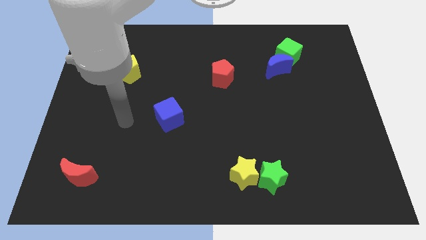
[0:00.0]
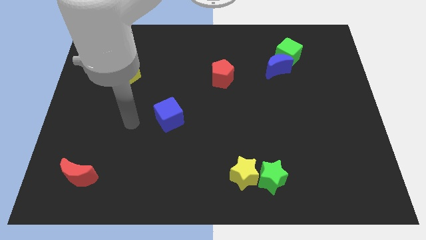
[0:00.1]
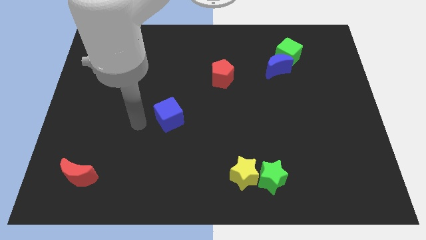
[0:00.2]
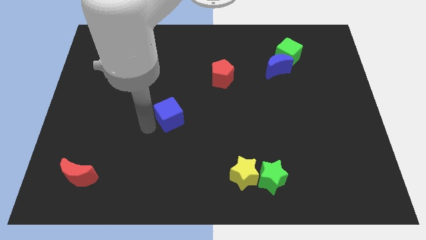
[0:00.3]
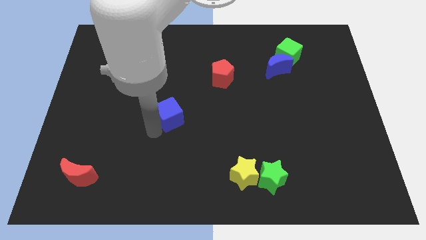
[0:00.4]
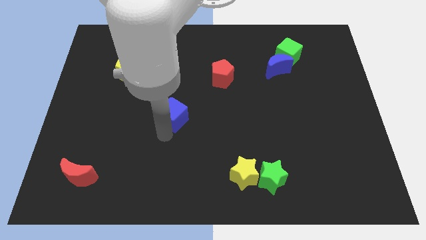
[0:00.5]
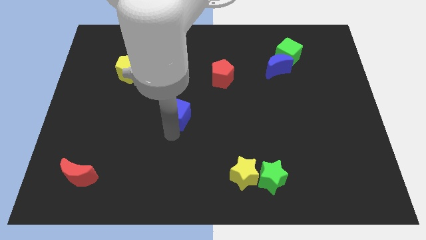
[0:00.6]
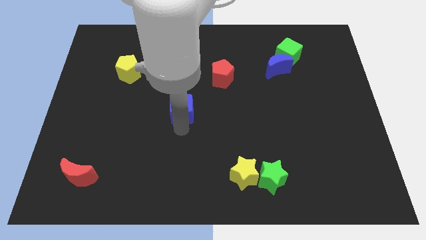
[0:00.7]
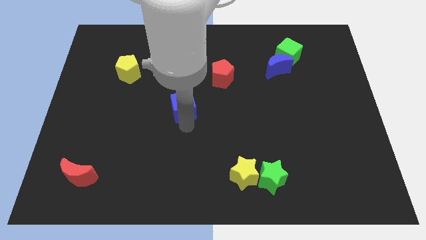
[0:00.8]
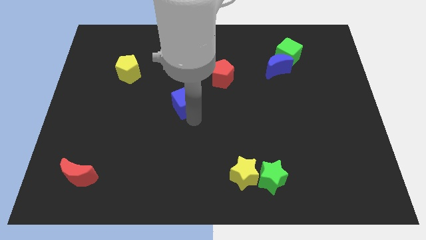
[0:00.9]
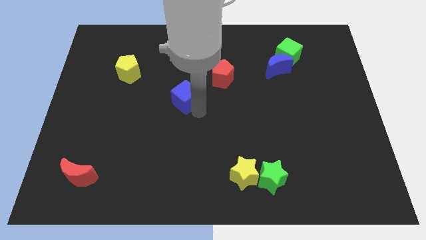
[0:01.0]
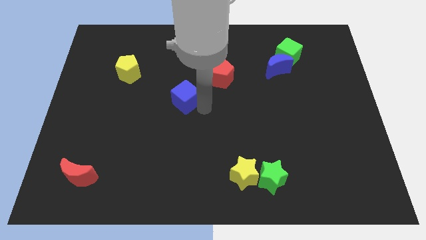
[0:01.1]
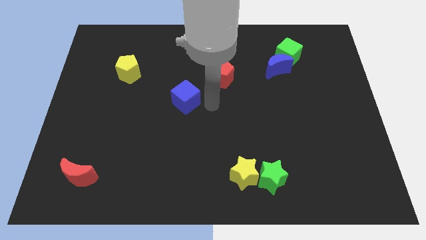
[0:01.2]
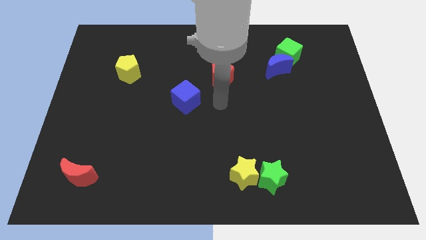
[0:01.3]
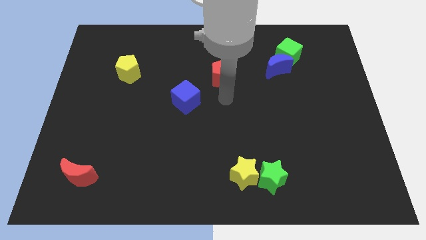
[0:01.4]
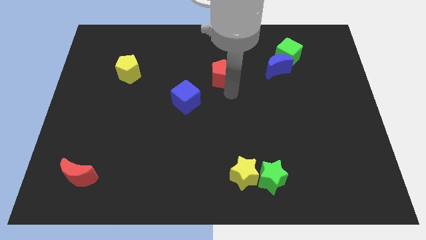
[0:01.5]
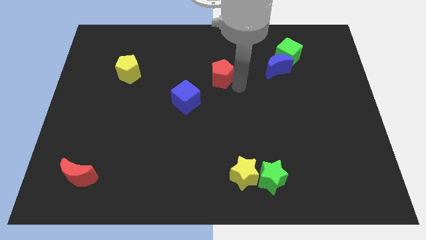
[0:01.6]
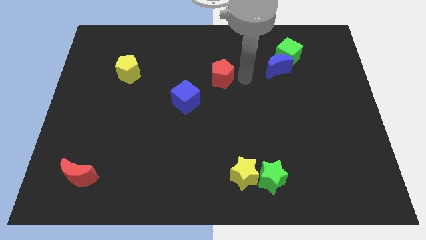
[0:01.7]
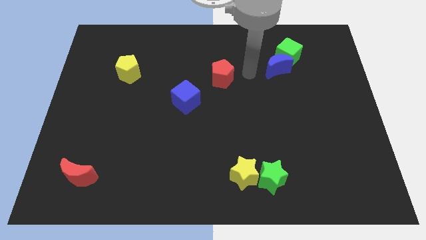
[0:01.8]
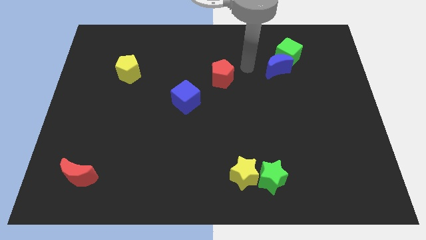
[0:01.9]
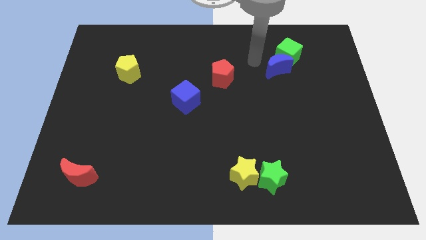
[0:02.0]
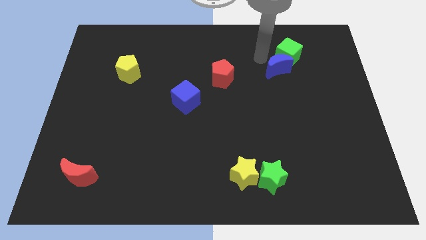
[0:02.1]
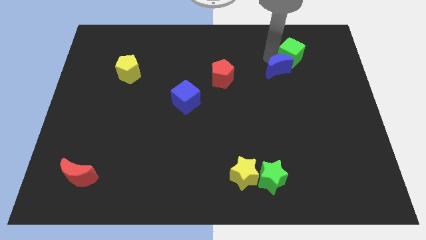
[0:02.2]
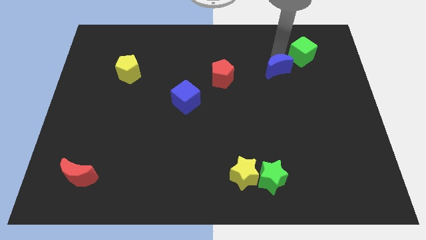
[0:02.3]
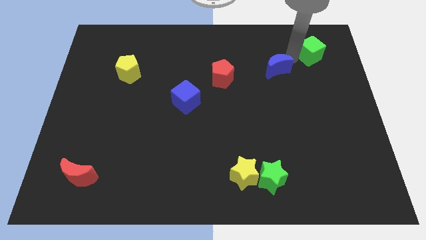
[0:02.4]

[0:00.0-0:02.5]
separate the blue moon from the green cube

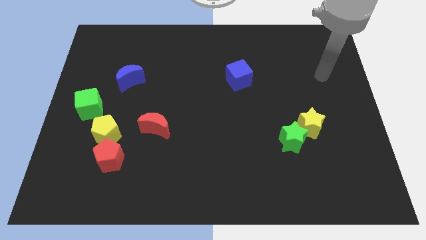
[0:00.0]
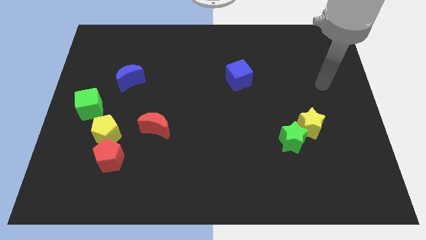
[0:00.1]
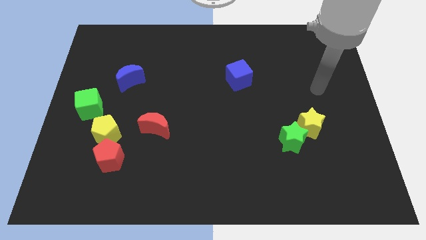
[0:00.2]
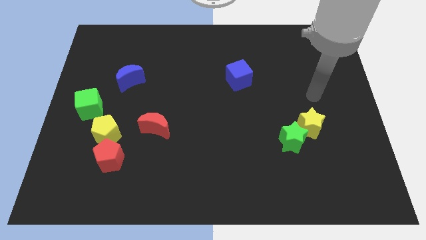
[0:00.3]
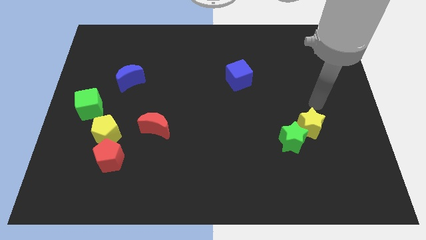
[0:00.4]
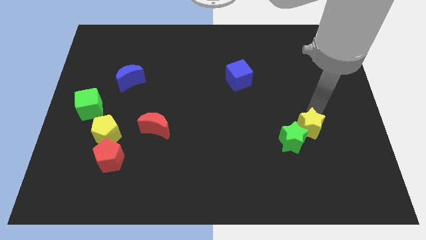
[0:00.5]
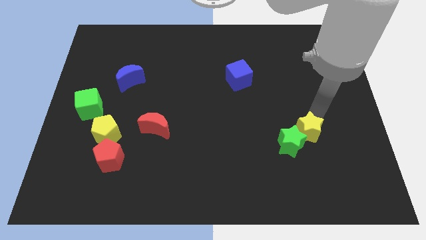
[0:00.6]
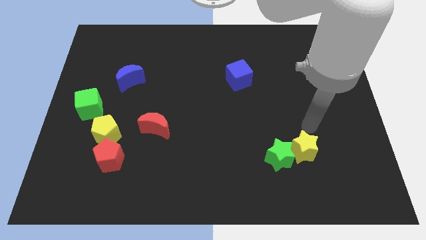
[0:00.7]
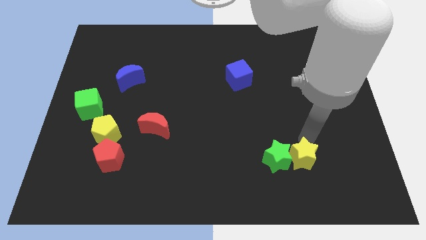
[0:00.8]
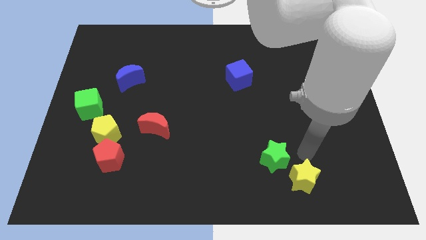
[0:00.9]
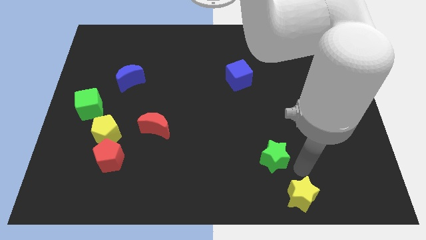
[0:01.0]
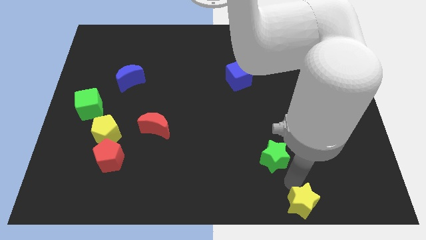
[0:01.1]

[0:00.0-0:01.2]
pull the green star apart from the yellow star

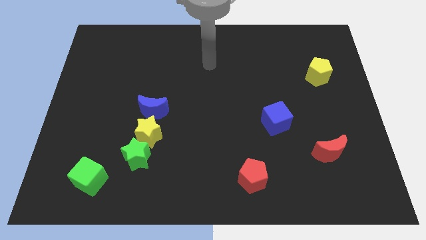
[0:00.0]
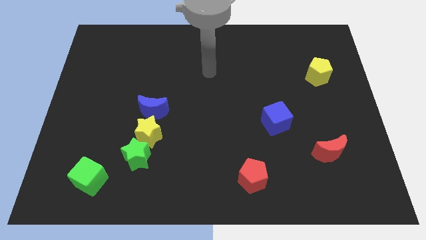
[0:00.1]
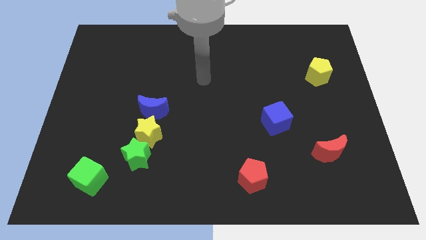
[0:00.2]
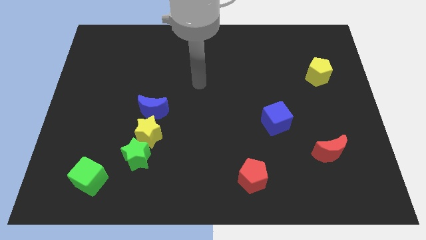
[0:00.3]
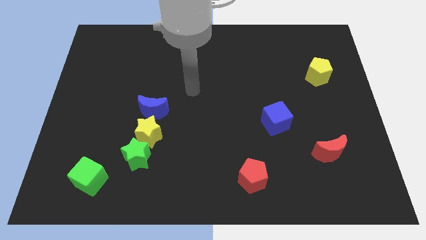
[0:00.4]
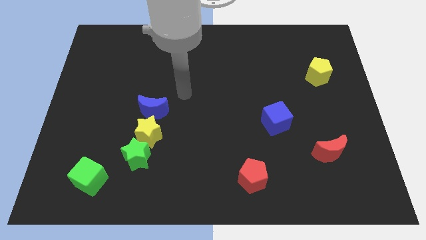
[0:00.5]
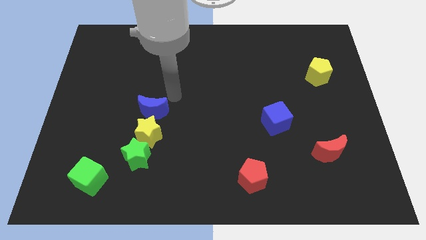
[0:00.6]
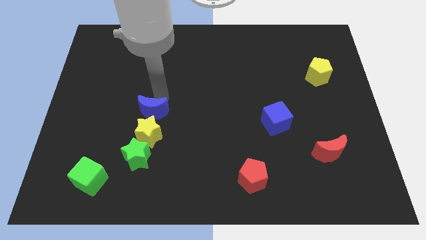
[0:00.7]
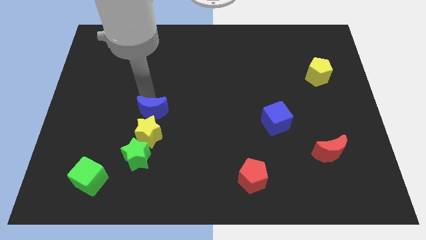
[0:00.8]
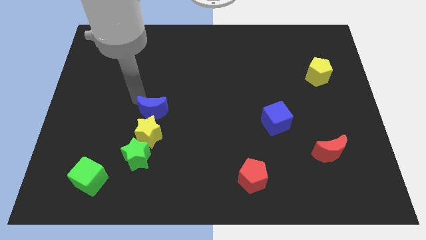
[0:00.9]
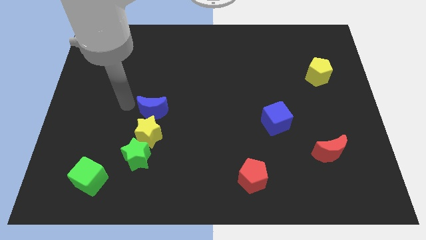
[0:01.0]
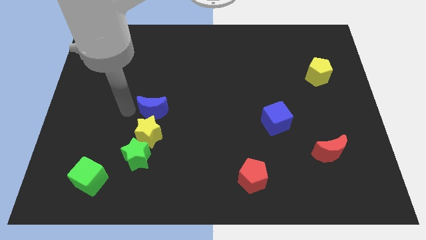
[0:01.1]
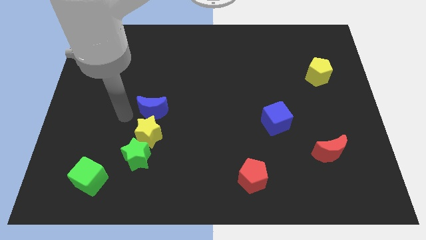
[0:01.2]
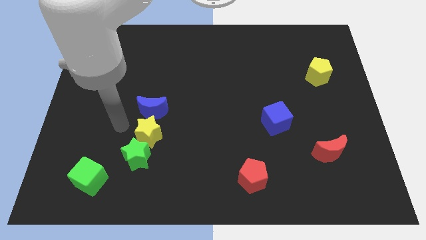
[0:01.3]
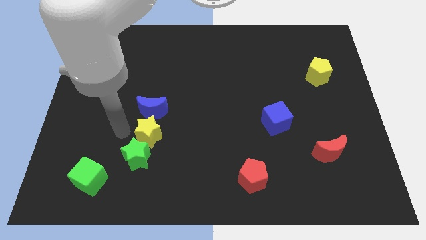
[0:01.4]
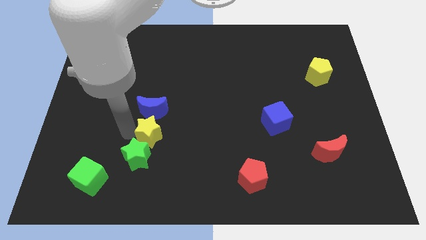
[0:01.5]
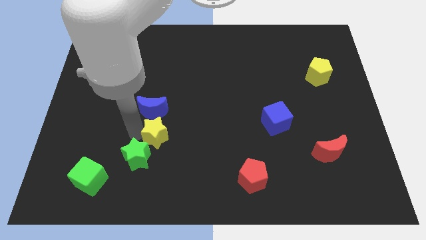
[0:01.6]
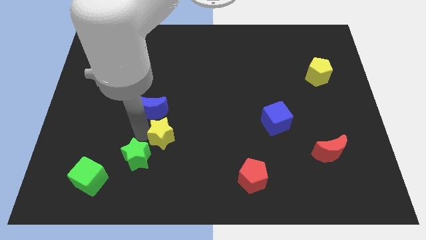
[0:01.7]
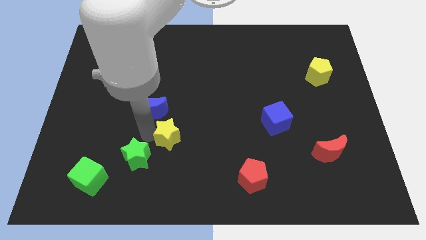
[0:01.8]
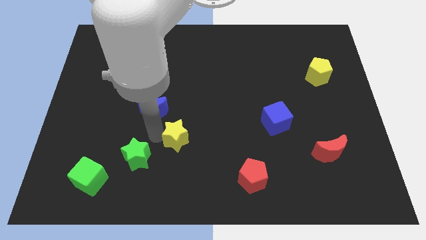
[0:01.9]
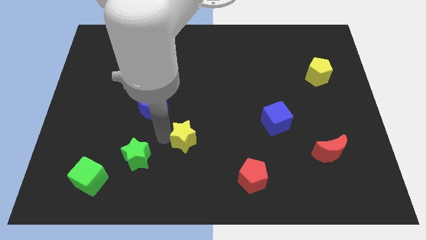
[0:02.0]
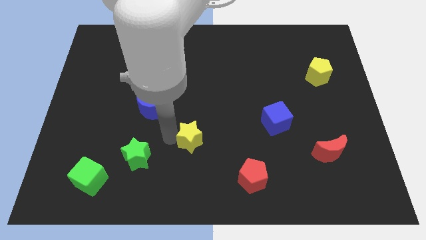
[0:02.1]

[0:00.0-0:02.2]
pull the yellow star apart from the green star and blue moon

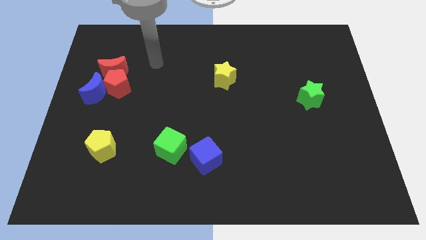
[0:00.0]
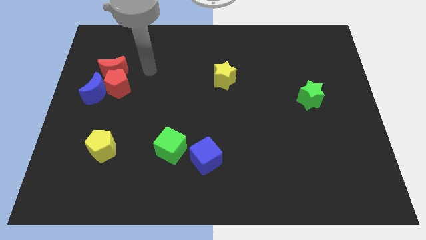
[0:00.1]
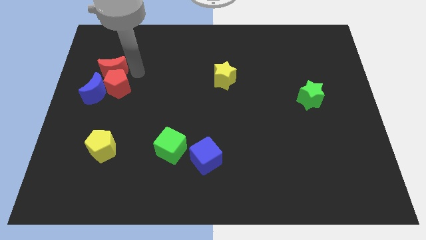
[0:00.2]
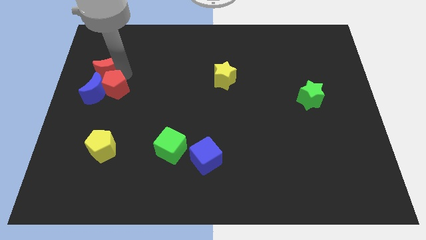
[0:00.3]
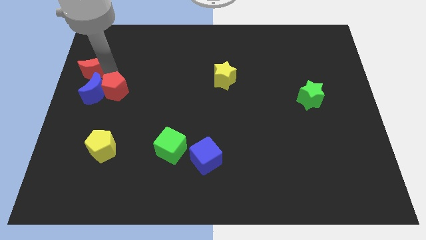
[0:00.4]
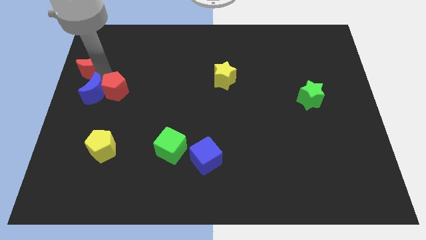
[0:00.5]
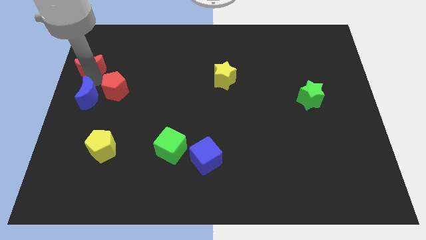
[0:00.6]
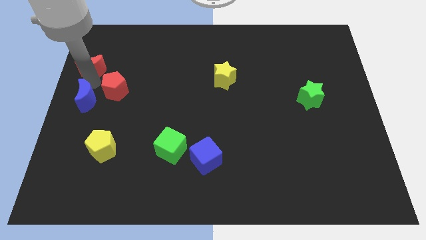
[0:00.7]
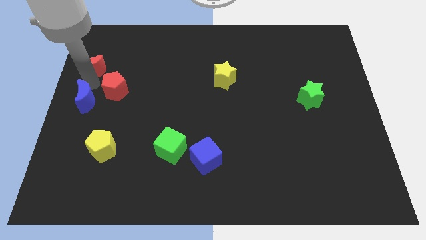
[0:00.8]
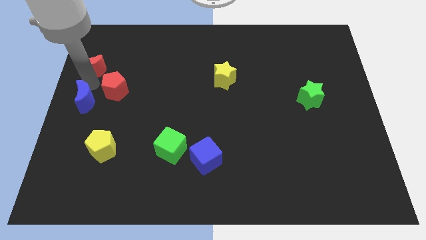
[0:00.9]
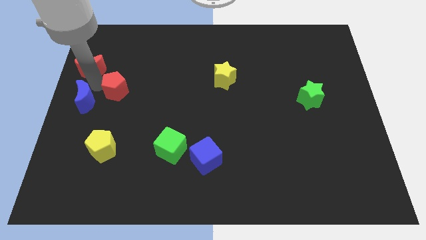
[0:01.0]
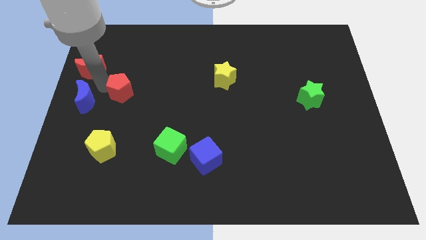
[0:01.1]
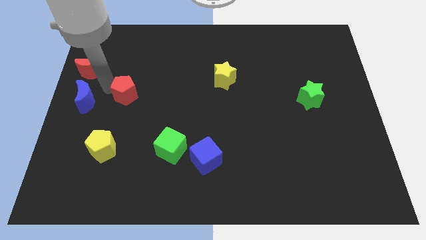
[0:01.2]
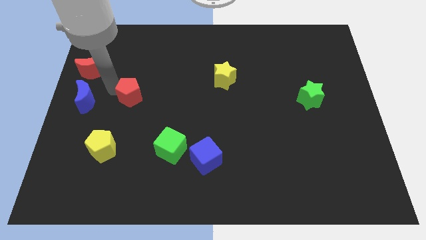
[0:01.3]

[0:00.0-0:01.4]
move the red pentagon away from the blue moon and red moon

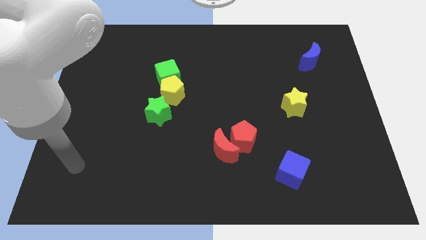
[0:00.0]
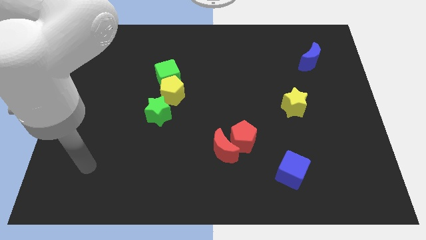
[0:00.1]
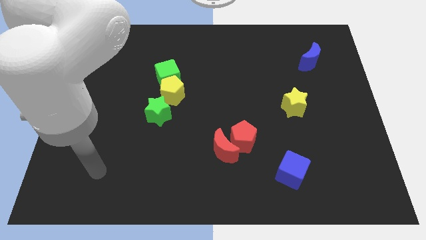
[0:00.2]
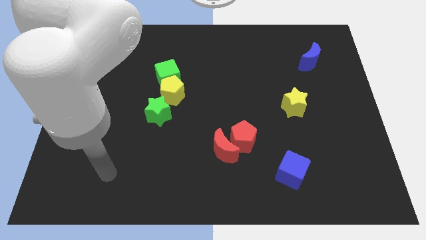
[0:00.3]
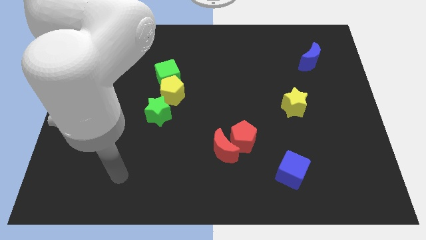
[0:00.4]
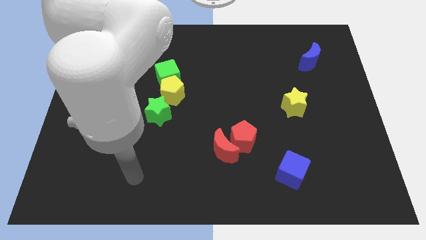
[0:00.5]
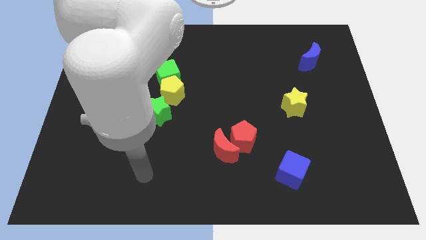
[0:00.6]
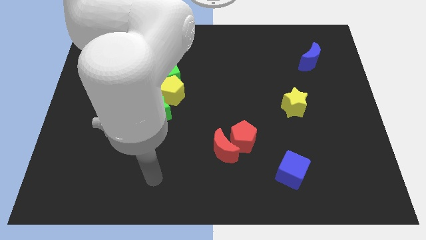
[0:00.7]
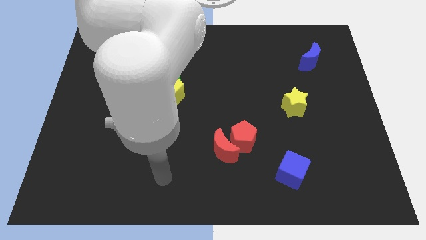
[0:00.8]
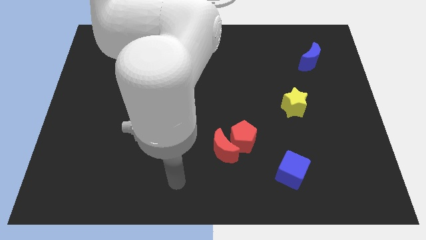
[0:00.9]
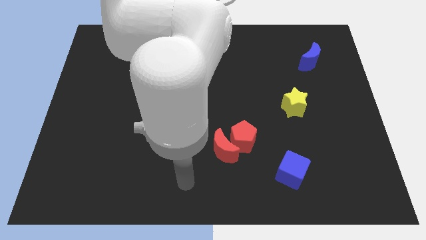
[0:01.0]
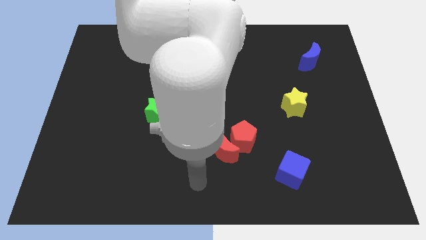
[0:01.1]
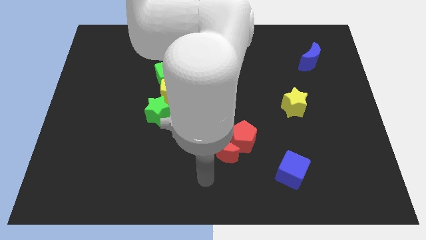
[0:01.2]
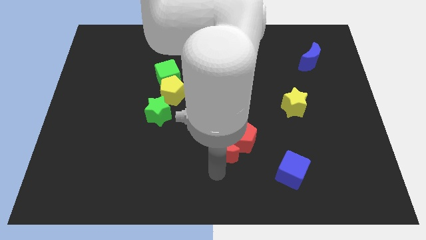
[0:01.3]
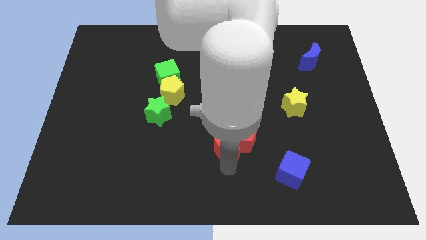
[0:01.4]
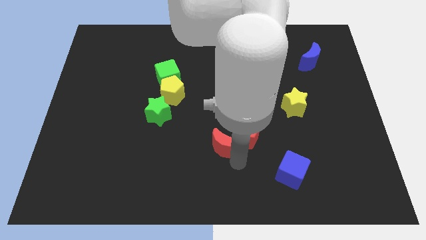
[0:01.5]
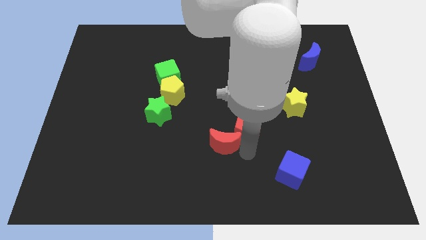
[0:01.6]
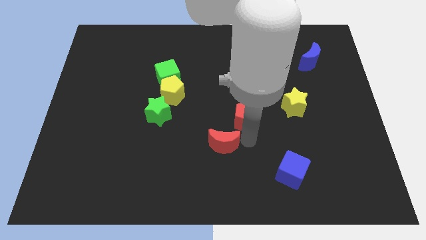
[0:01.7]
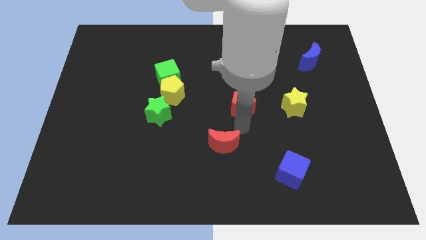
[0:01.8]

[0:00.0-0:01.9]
pull the red moon apart from the red pentagon

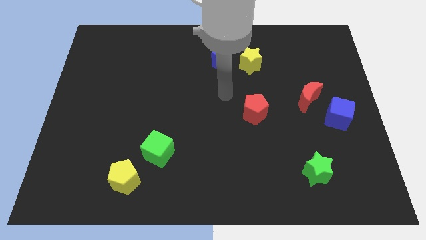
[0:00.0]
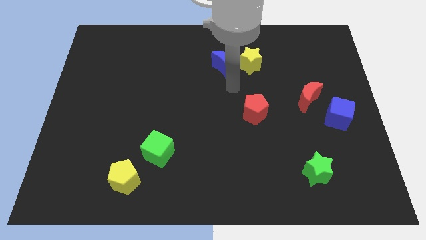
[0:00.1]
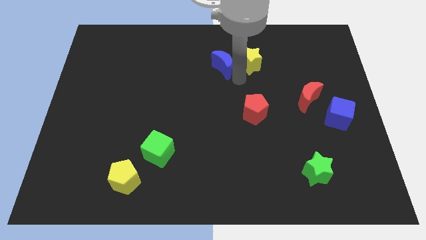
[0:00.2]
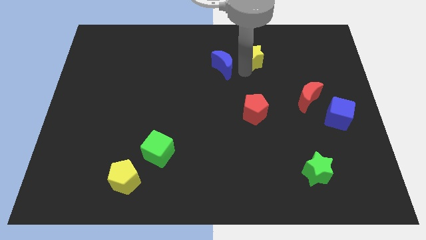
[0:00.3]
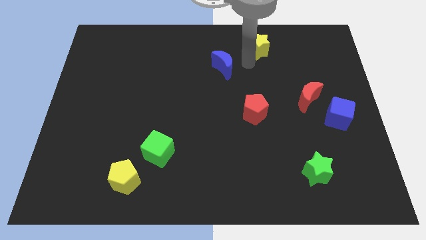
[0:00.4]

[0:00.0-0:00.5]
move the blue moon away from the yellow star
